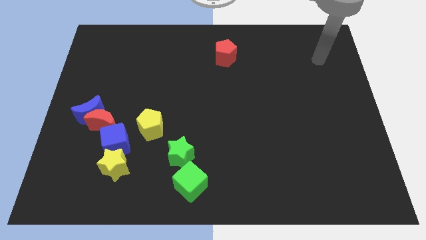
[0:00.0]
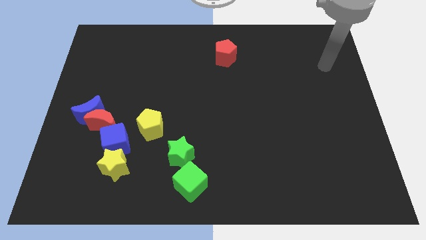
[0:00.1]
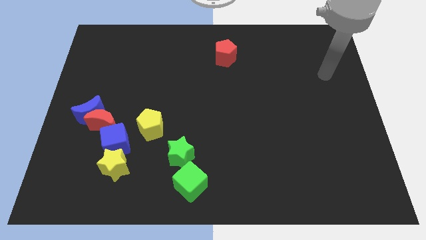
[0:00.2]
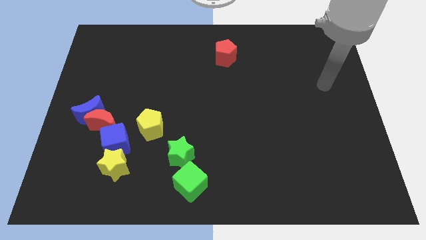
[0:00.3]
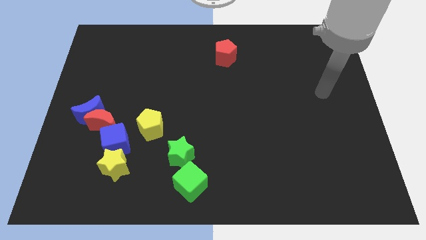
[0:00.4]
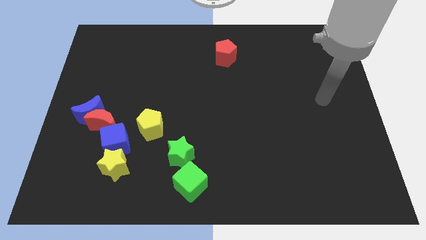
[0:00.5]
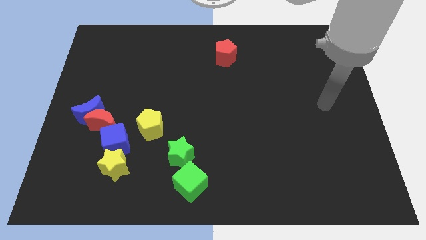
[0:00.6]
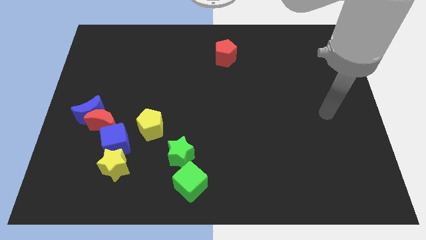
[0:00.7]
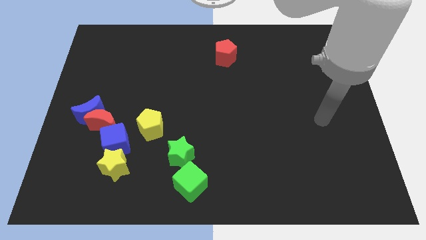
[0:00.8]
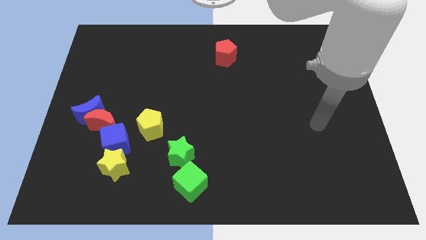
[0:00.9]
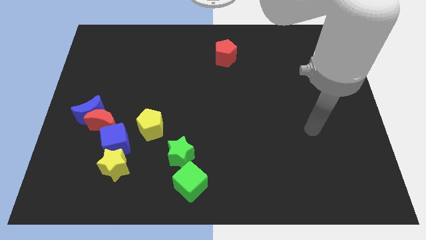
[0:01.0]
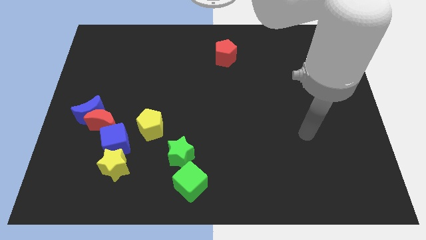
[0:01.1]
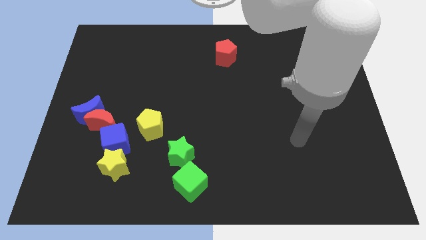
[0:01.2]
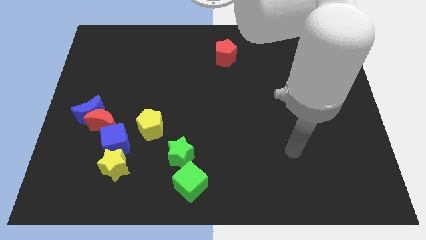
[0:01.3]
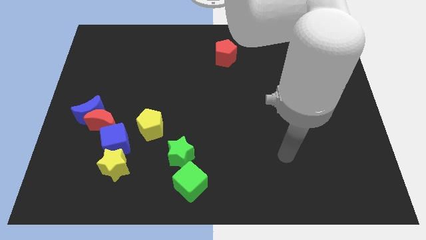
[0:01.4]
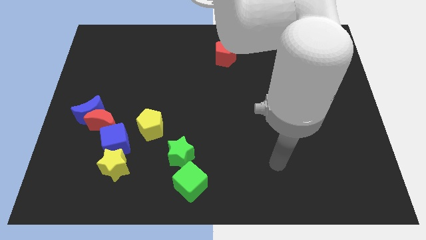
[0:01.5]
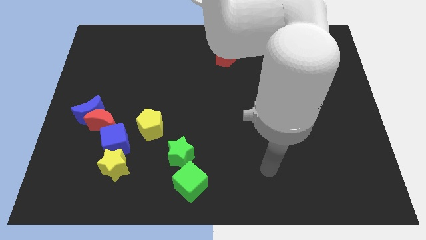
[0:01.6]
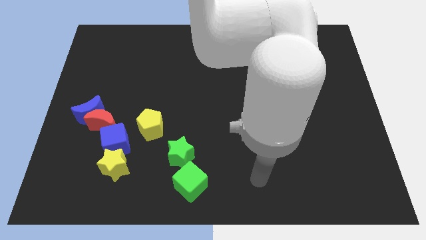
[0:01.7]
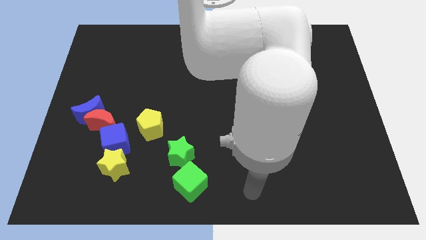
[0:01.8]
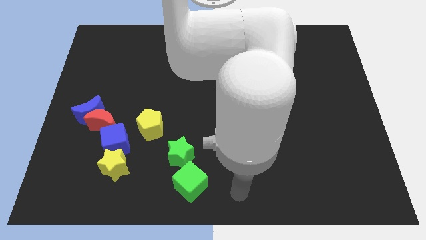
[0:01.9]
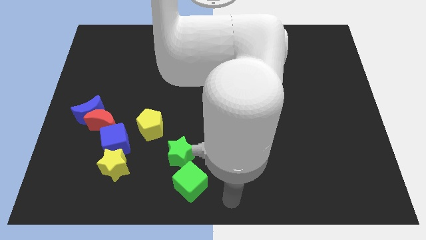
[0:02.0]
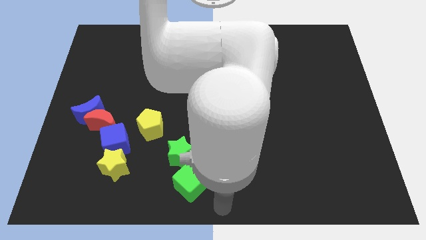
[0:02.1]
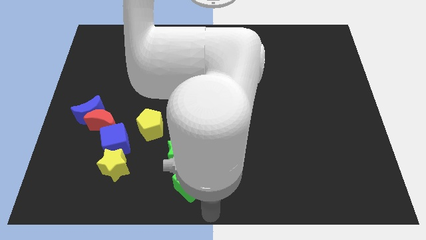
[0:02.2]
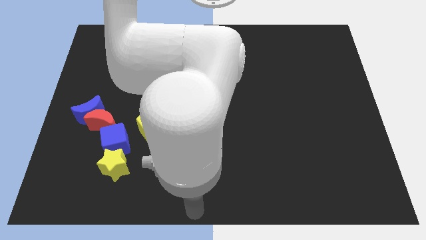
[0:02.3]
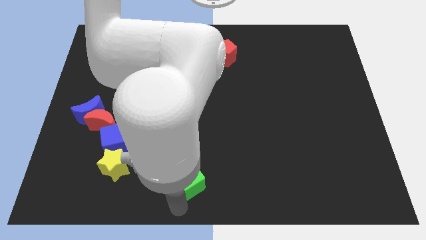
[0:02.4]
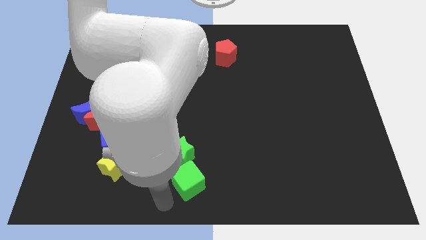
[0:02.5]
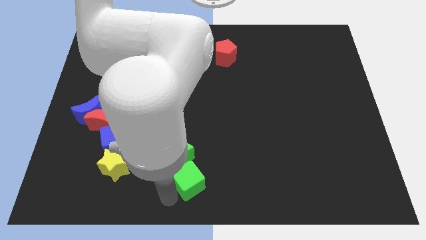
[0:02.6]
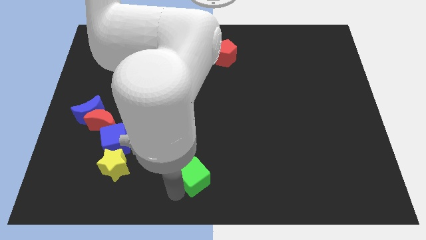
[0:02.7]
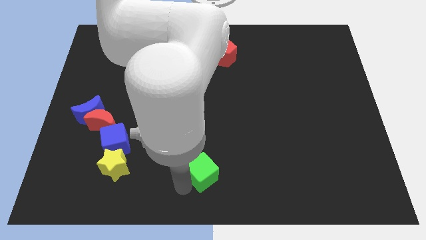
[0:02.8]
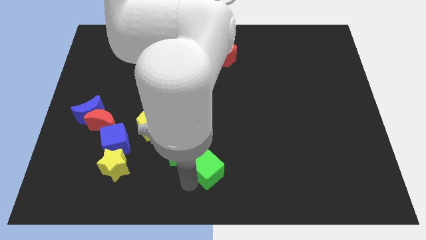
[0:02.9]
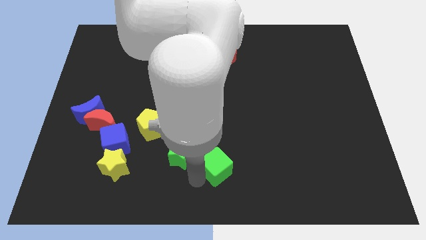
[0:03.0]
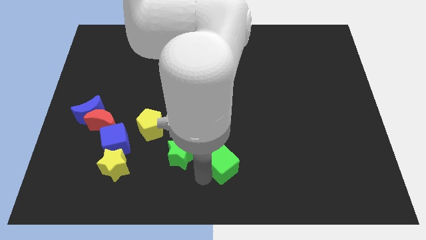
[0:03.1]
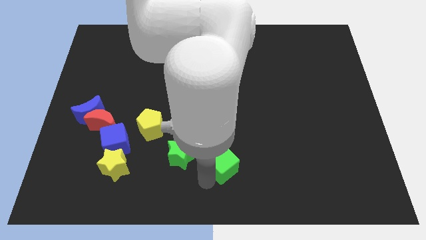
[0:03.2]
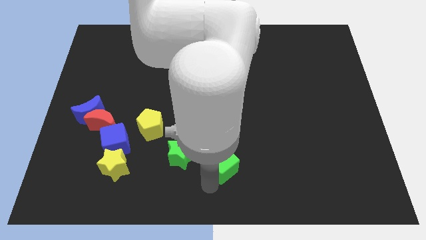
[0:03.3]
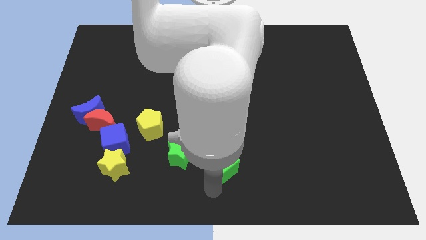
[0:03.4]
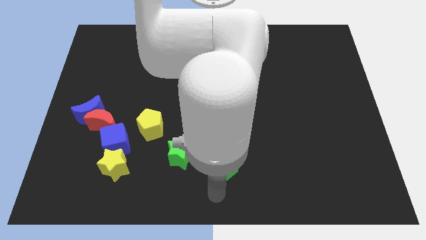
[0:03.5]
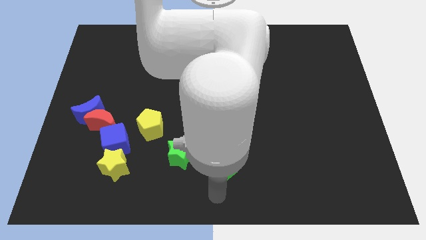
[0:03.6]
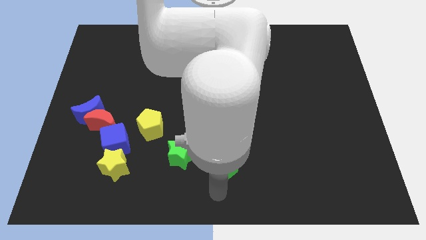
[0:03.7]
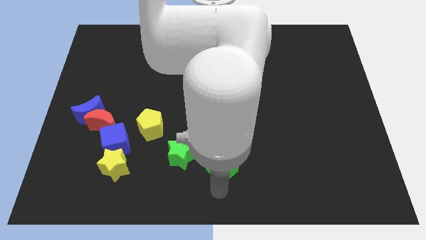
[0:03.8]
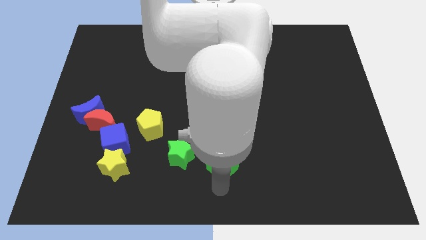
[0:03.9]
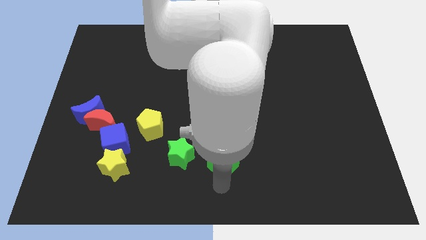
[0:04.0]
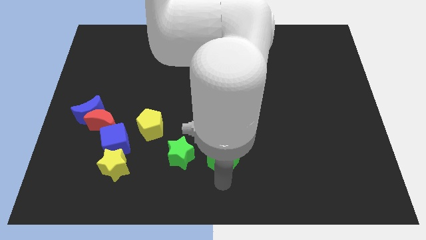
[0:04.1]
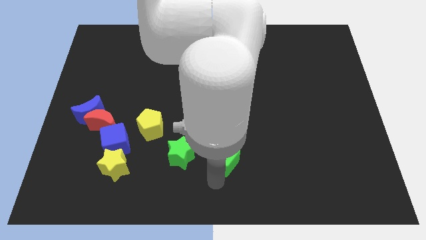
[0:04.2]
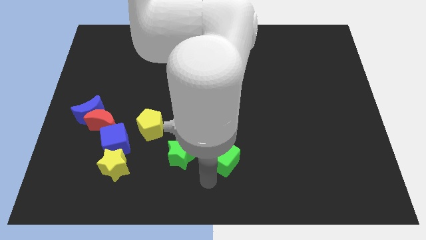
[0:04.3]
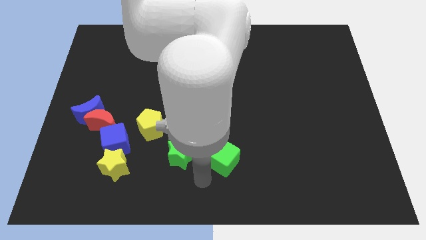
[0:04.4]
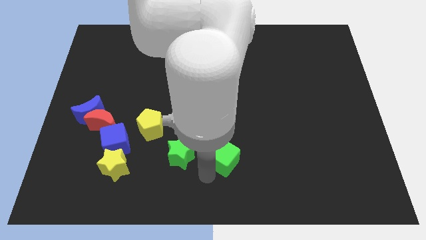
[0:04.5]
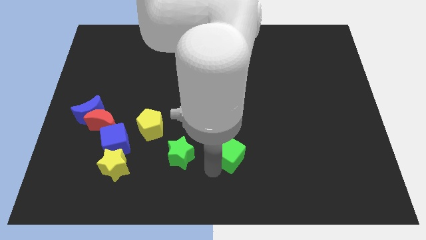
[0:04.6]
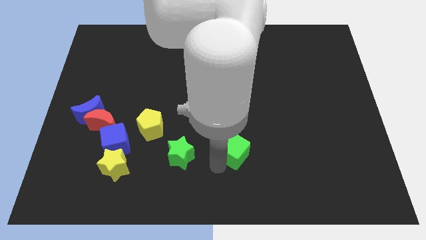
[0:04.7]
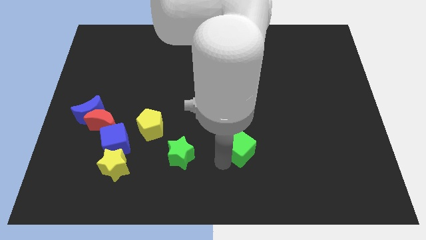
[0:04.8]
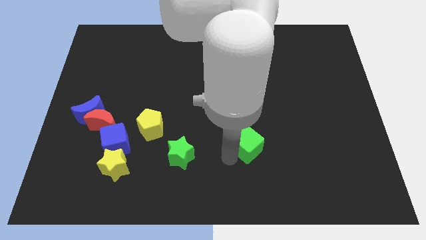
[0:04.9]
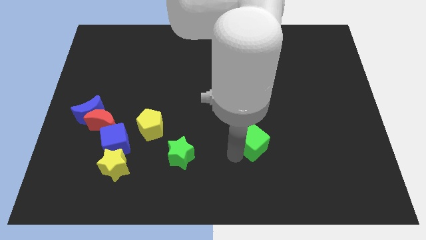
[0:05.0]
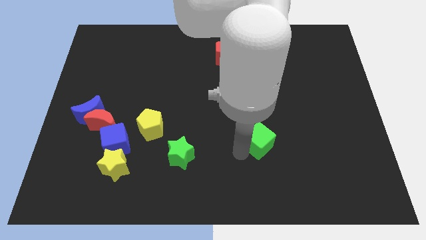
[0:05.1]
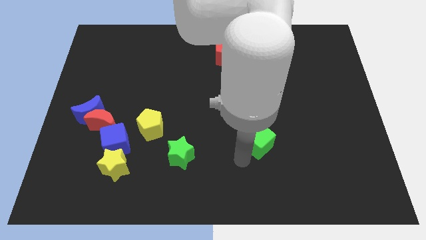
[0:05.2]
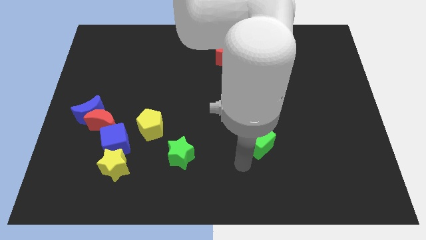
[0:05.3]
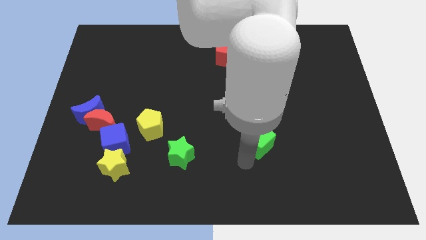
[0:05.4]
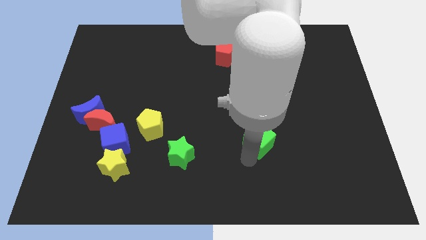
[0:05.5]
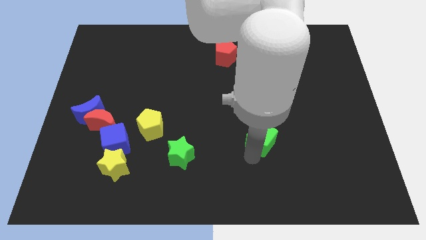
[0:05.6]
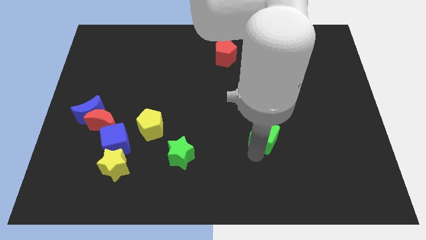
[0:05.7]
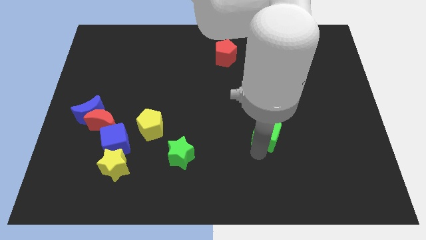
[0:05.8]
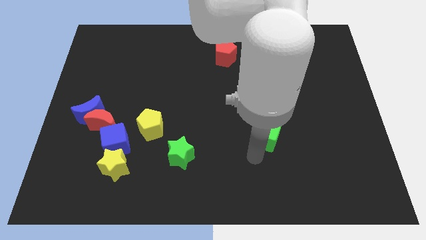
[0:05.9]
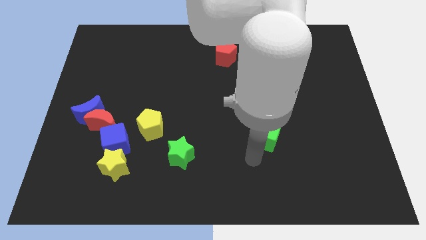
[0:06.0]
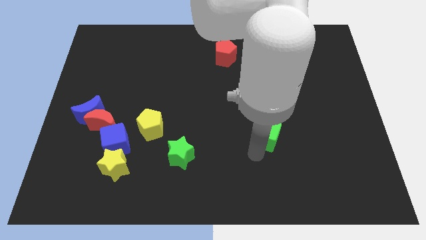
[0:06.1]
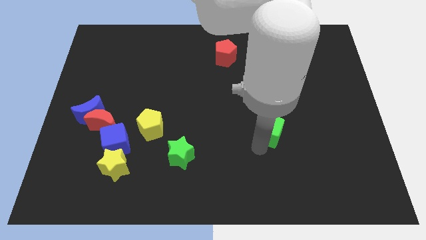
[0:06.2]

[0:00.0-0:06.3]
push the green cube upwards and right

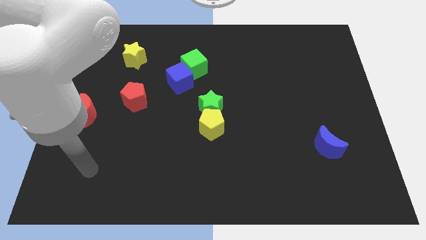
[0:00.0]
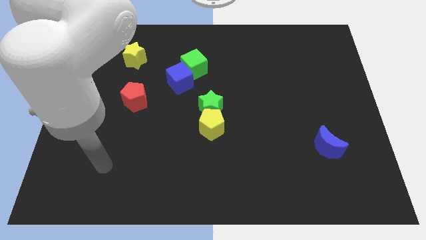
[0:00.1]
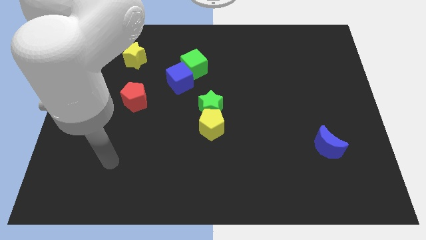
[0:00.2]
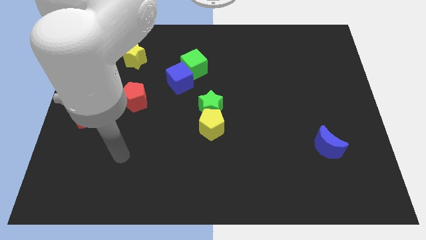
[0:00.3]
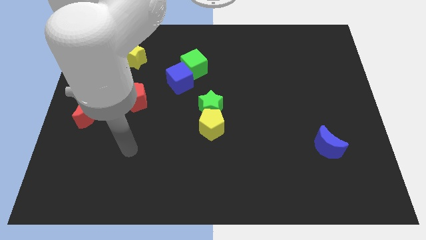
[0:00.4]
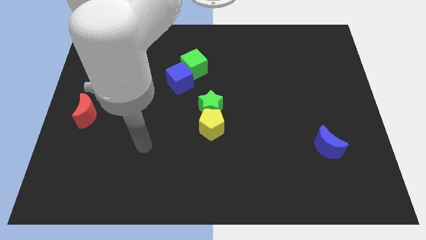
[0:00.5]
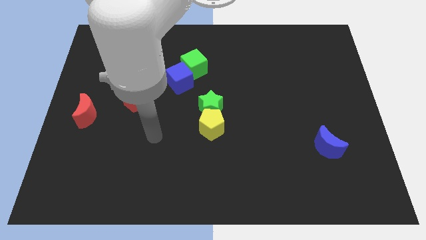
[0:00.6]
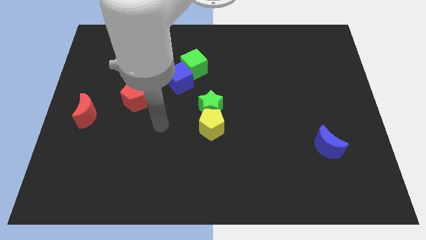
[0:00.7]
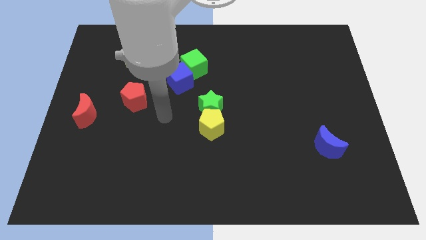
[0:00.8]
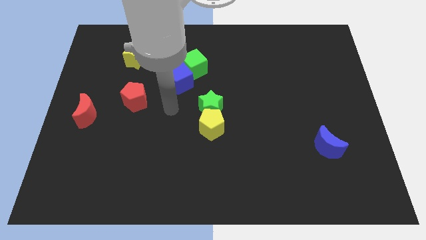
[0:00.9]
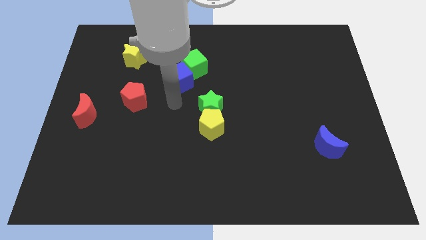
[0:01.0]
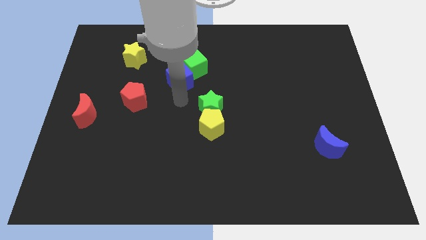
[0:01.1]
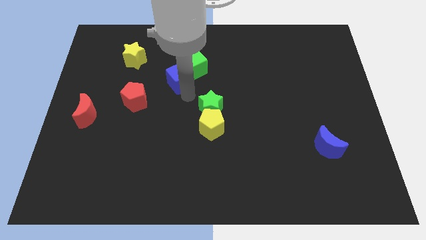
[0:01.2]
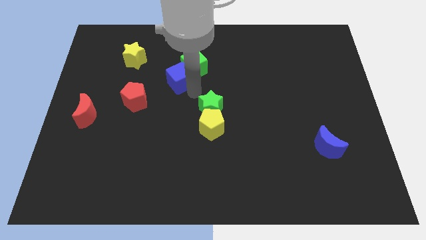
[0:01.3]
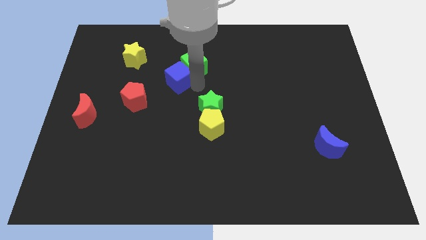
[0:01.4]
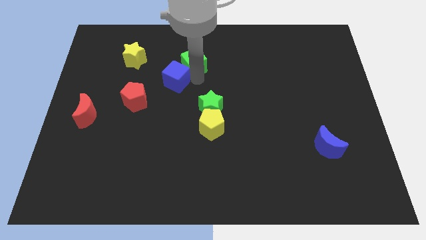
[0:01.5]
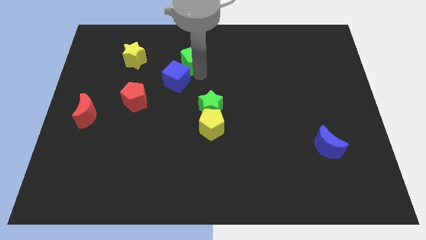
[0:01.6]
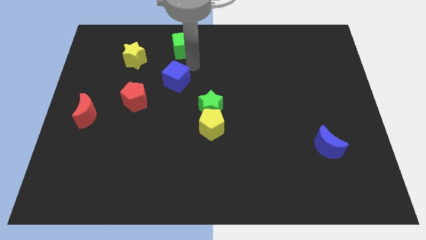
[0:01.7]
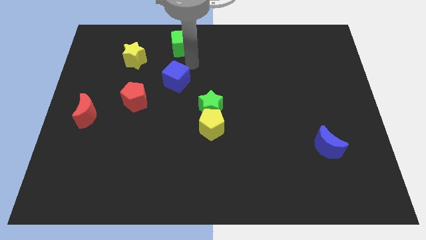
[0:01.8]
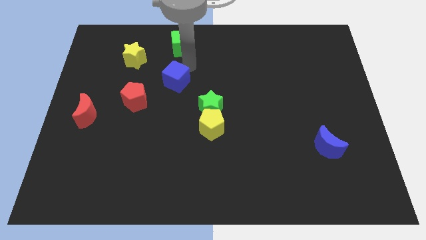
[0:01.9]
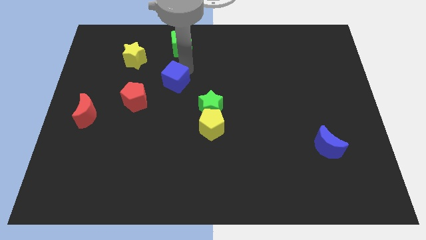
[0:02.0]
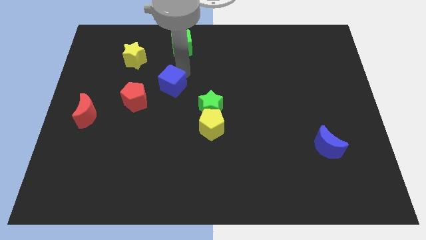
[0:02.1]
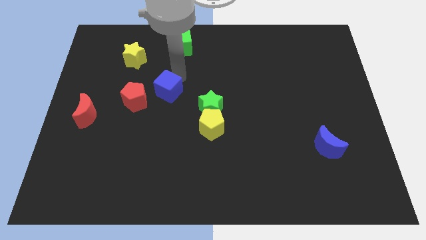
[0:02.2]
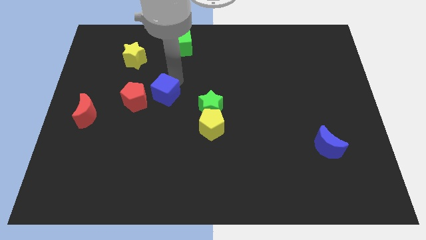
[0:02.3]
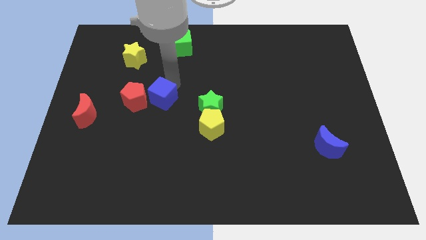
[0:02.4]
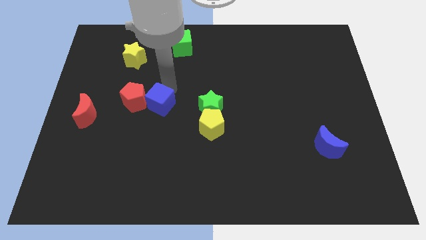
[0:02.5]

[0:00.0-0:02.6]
move the blue cube a little down and to the left diagonally
